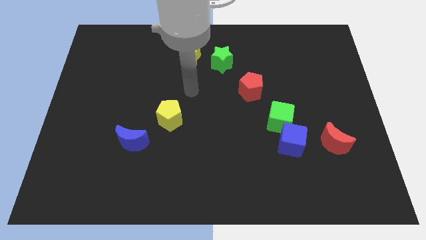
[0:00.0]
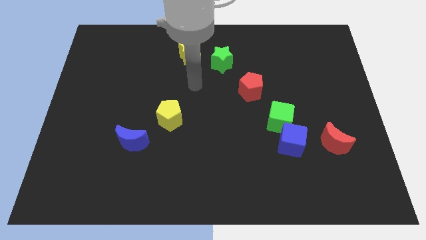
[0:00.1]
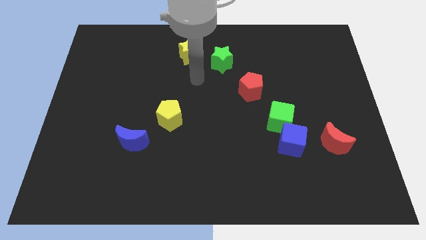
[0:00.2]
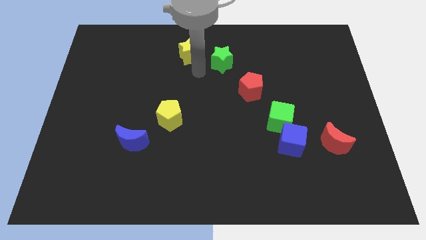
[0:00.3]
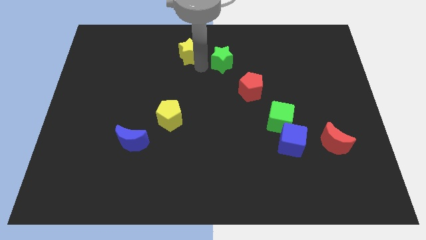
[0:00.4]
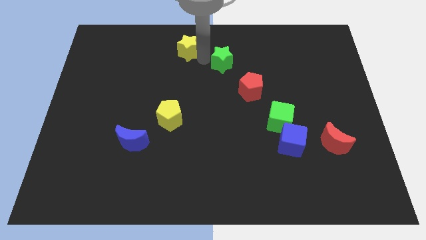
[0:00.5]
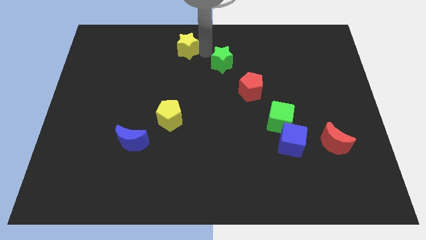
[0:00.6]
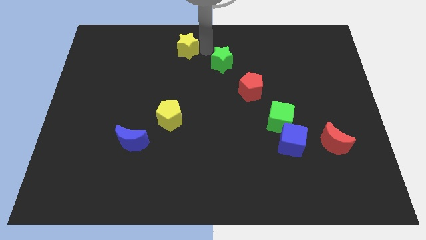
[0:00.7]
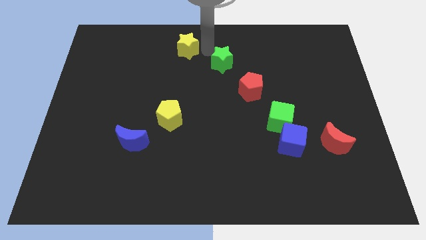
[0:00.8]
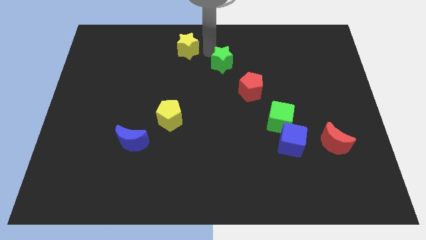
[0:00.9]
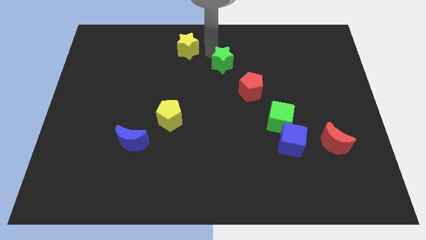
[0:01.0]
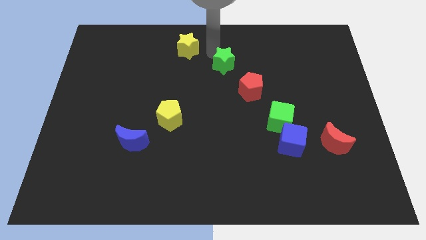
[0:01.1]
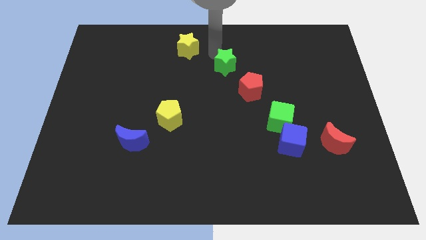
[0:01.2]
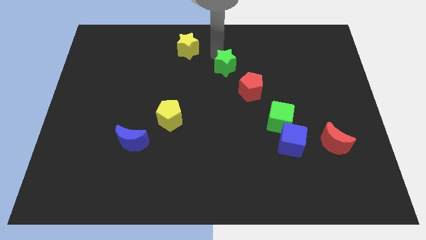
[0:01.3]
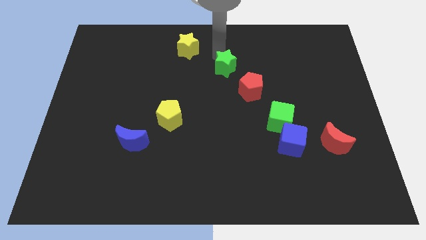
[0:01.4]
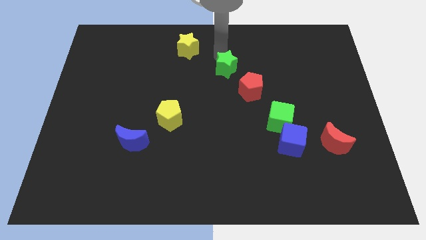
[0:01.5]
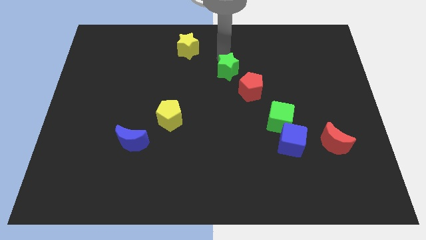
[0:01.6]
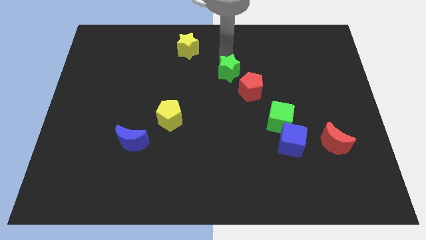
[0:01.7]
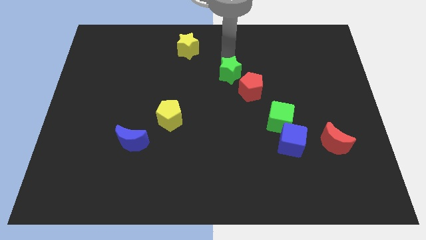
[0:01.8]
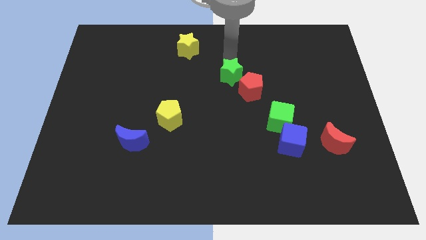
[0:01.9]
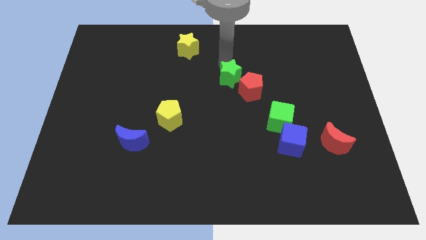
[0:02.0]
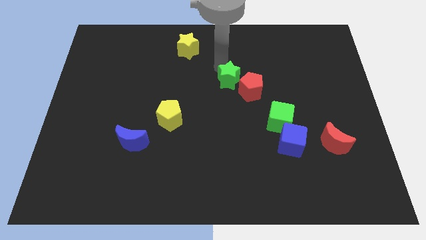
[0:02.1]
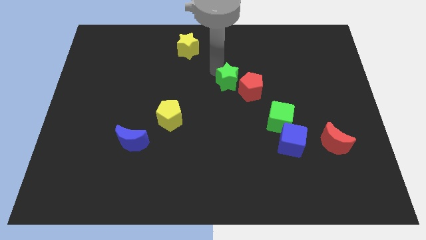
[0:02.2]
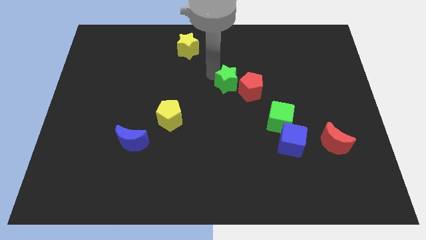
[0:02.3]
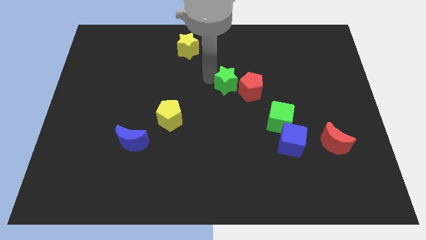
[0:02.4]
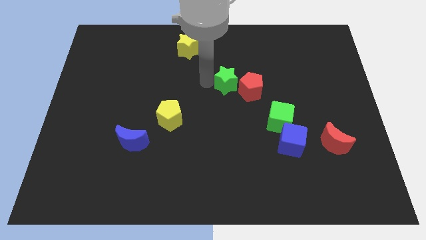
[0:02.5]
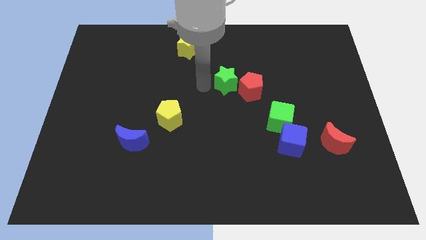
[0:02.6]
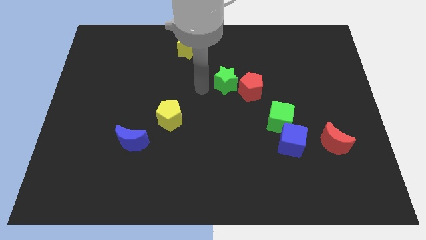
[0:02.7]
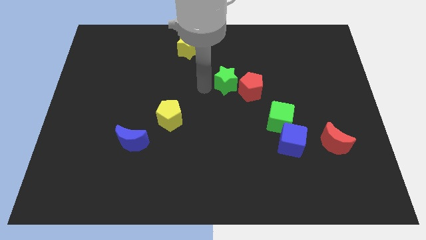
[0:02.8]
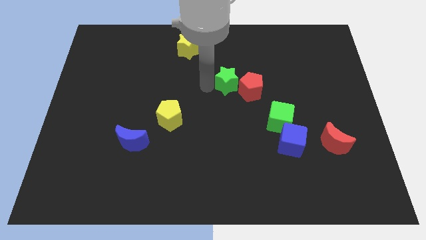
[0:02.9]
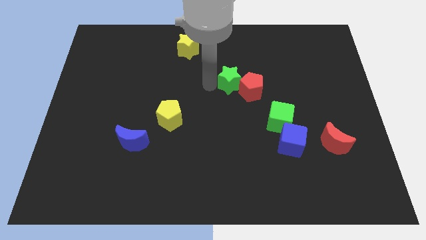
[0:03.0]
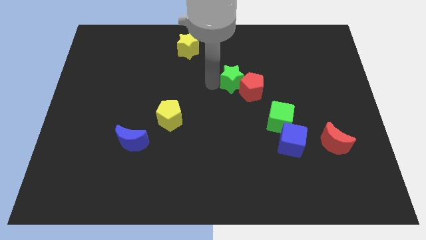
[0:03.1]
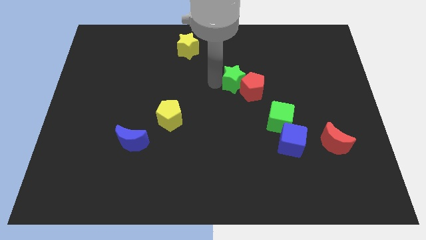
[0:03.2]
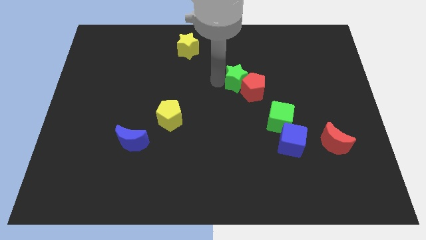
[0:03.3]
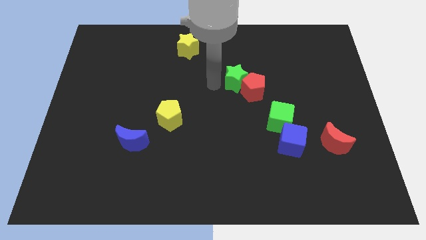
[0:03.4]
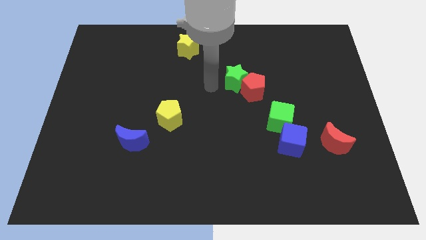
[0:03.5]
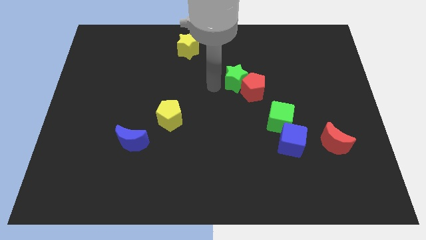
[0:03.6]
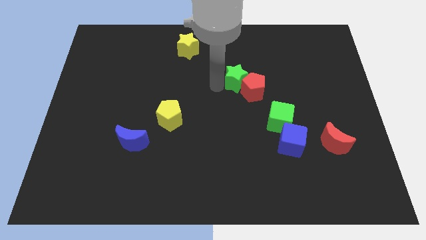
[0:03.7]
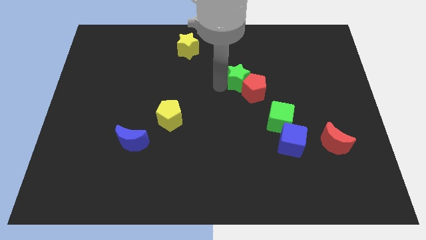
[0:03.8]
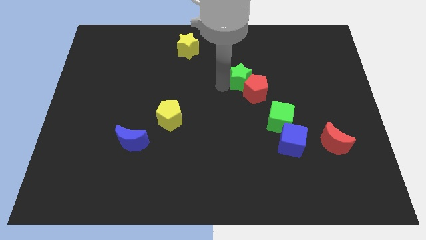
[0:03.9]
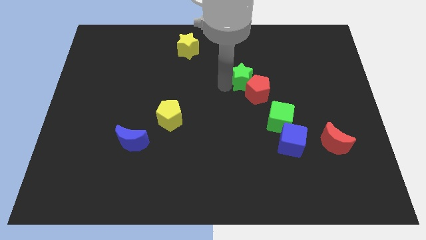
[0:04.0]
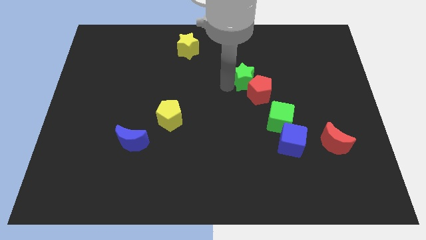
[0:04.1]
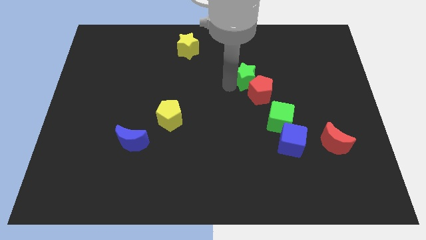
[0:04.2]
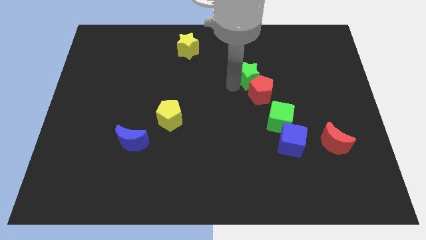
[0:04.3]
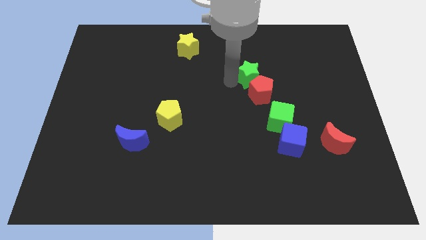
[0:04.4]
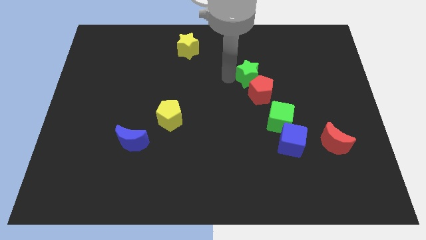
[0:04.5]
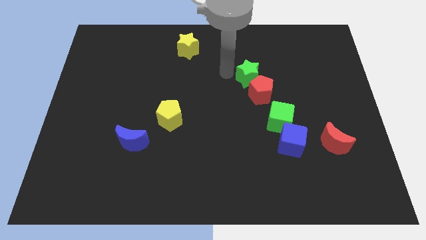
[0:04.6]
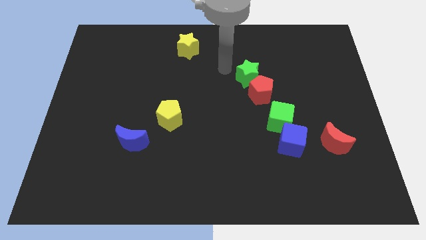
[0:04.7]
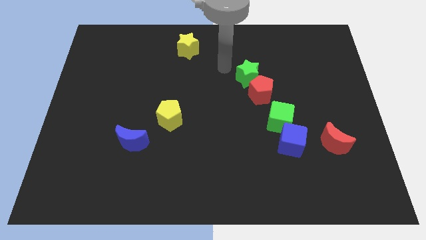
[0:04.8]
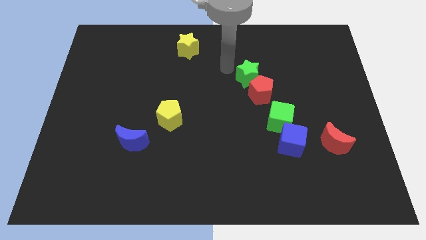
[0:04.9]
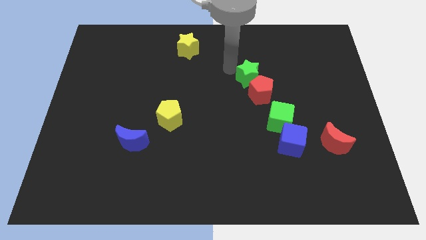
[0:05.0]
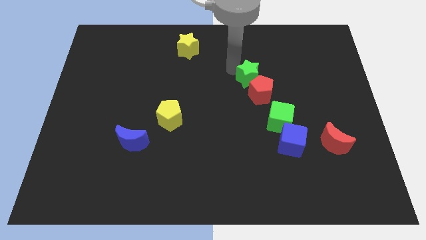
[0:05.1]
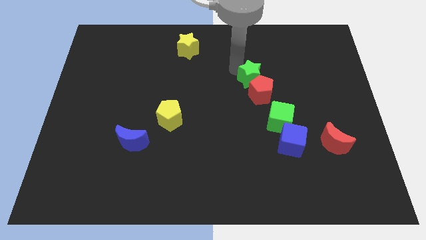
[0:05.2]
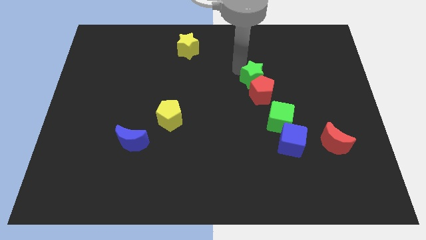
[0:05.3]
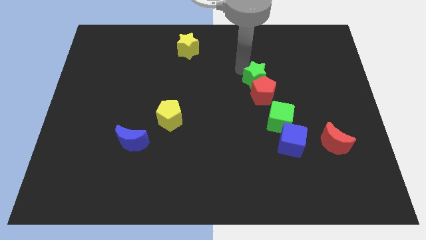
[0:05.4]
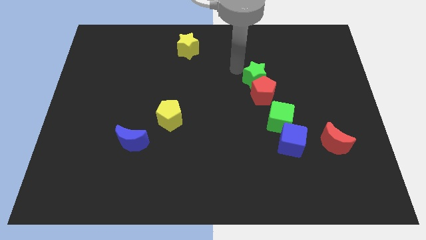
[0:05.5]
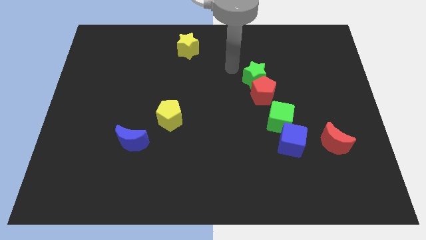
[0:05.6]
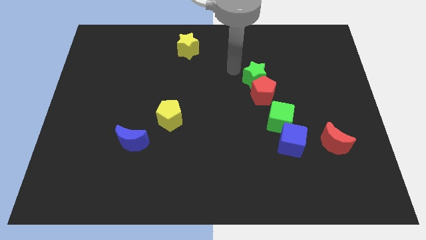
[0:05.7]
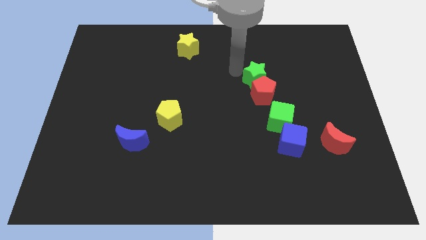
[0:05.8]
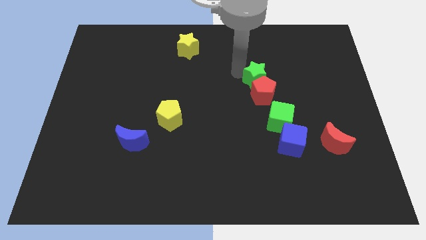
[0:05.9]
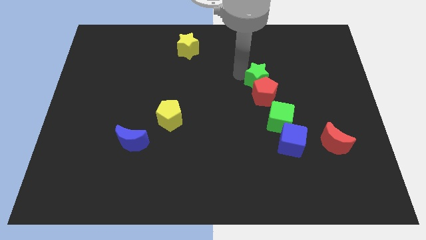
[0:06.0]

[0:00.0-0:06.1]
move the green star above the green cube

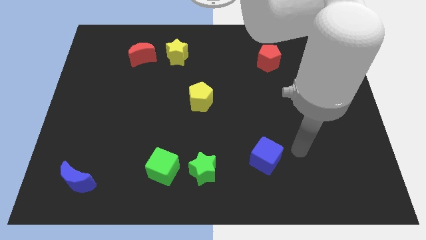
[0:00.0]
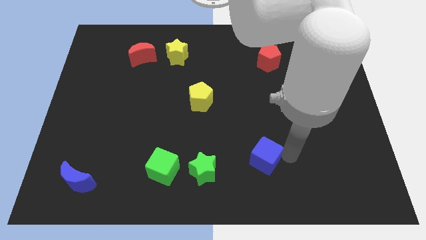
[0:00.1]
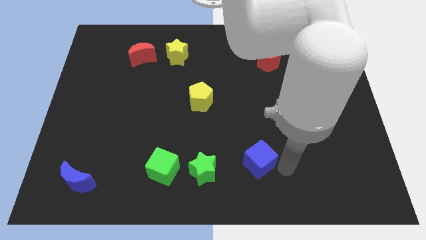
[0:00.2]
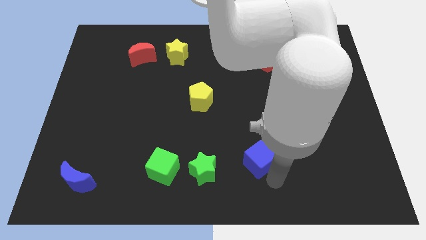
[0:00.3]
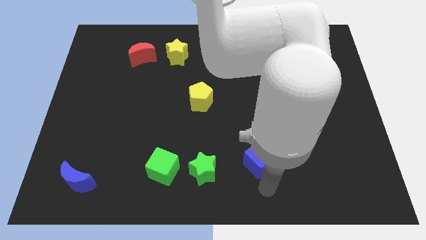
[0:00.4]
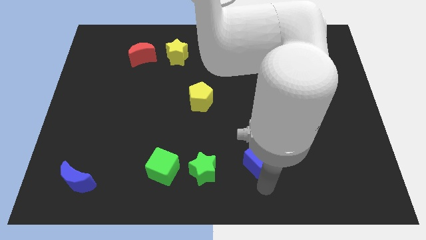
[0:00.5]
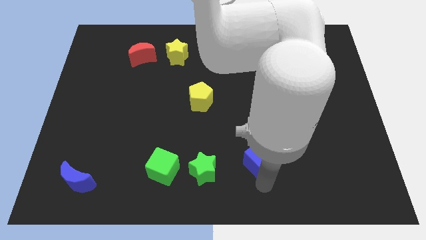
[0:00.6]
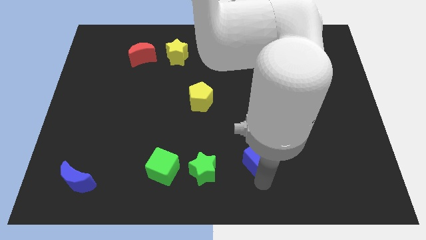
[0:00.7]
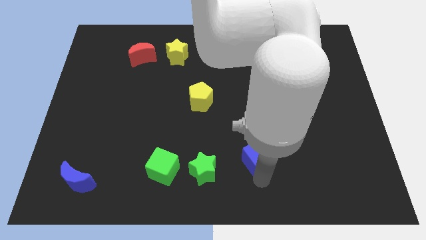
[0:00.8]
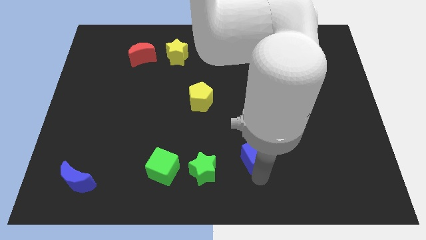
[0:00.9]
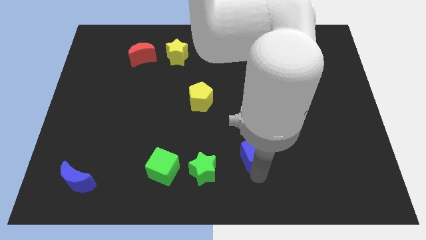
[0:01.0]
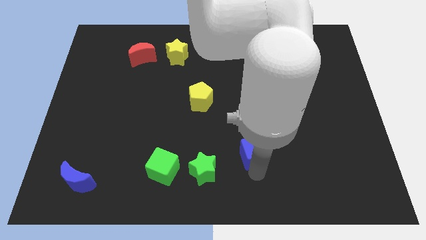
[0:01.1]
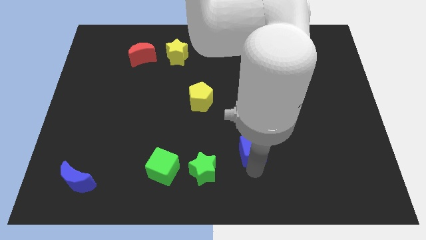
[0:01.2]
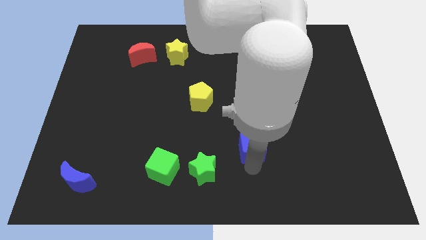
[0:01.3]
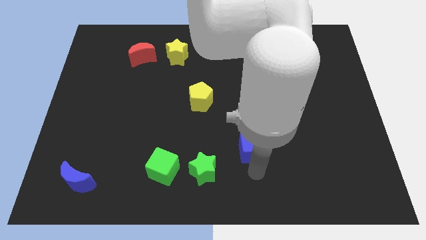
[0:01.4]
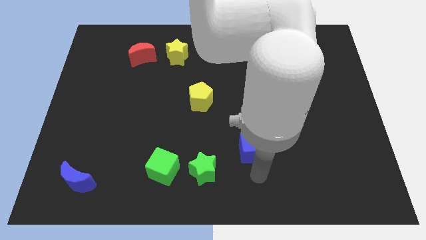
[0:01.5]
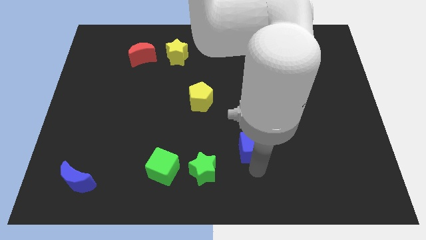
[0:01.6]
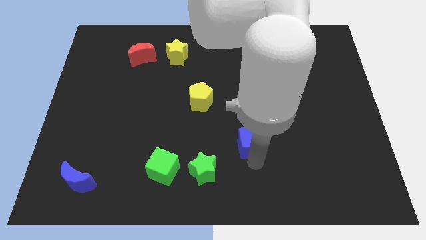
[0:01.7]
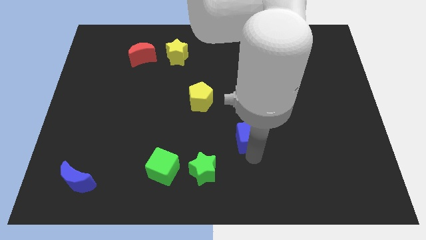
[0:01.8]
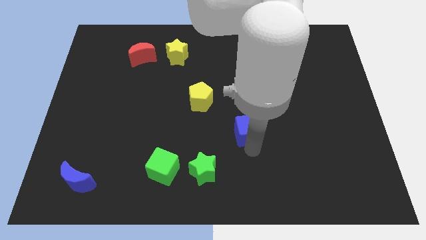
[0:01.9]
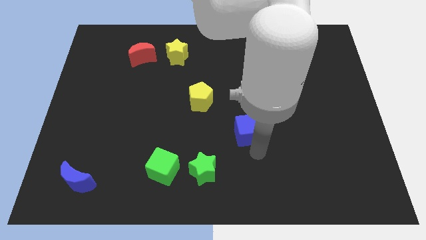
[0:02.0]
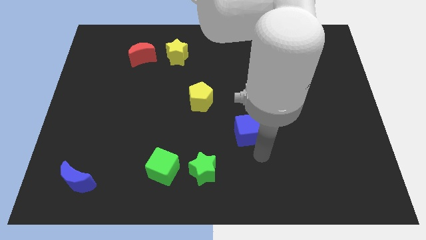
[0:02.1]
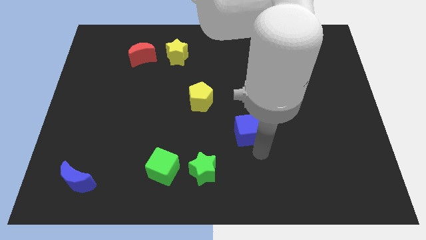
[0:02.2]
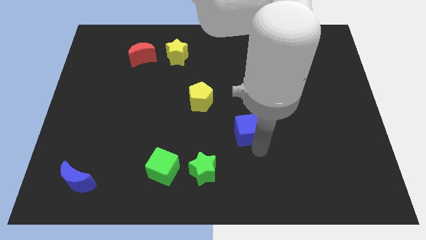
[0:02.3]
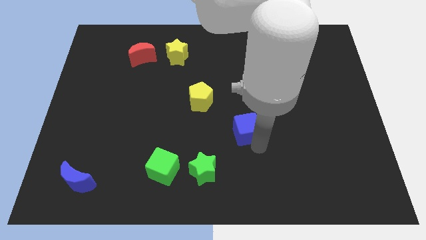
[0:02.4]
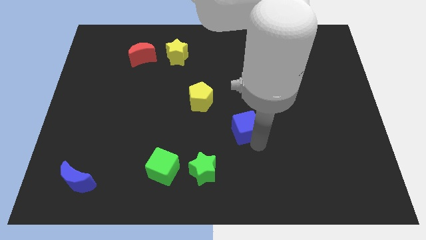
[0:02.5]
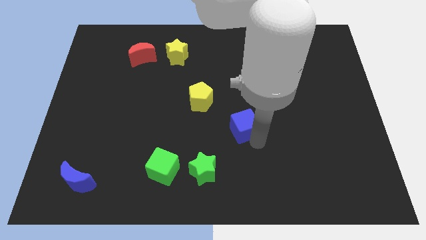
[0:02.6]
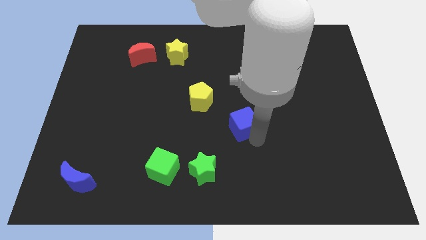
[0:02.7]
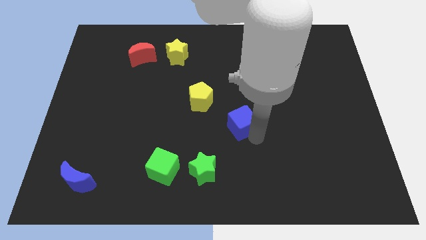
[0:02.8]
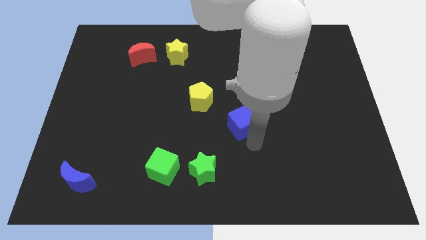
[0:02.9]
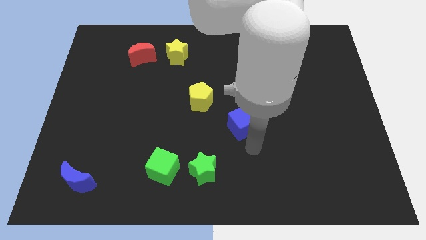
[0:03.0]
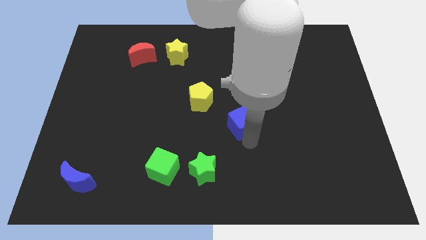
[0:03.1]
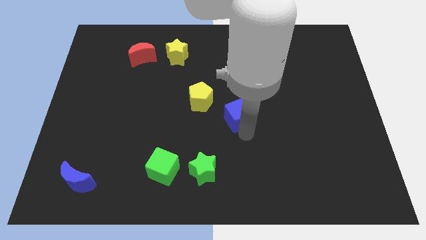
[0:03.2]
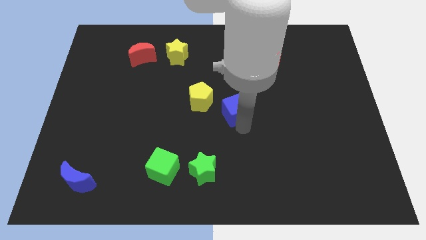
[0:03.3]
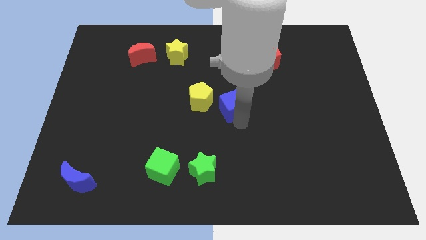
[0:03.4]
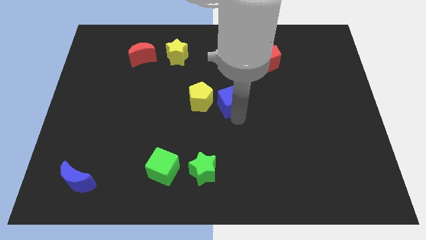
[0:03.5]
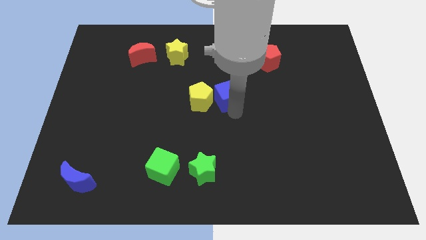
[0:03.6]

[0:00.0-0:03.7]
put the blue cube to the top right of the yellow pentagon
